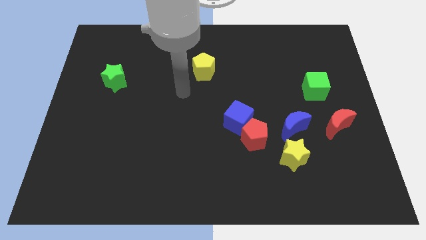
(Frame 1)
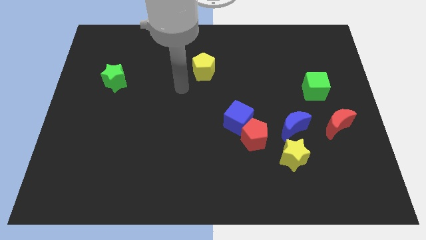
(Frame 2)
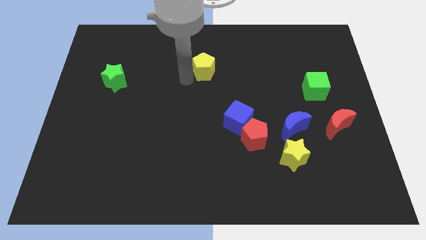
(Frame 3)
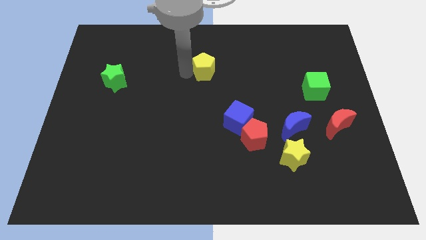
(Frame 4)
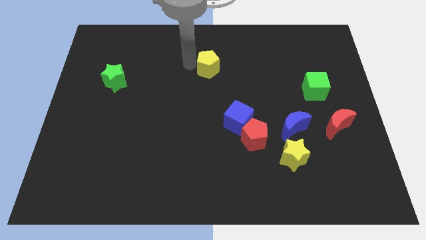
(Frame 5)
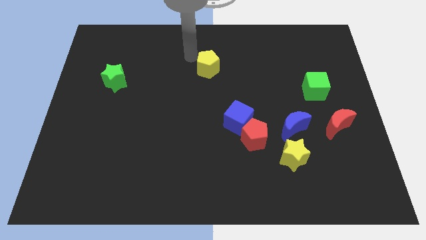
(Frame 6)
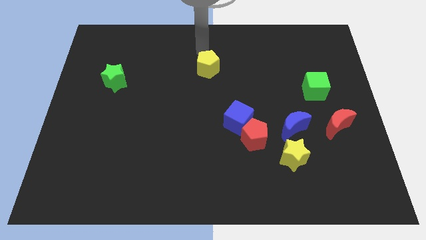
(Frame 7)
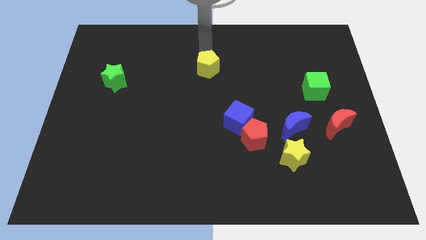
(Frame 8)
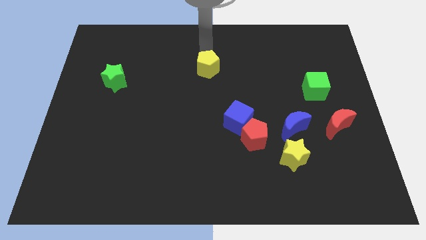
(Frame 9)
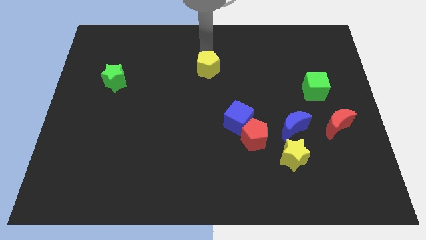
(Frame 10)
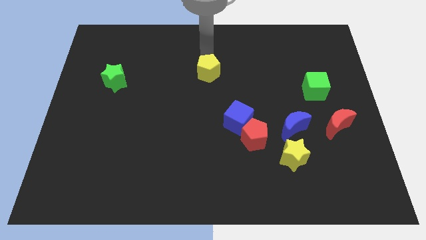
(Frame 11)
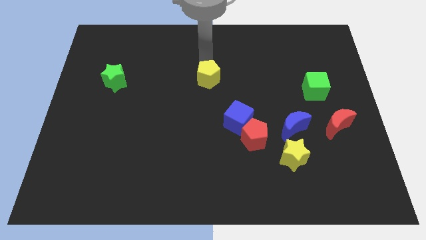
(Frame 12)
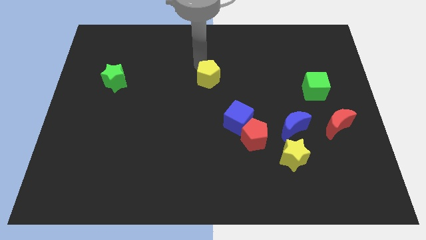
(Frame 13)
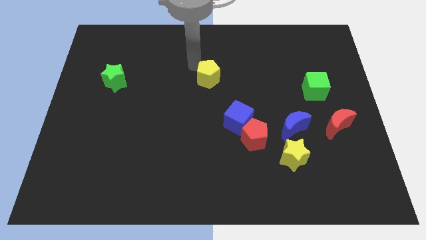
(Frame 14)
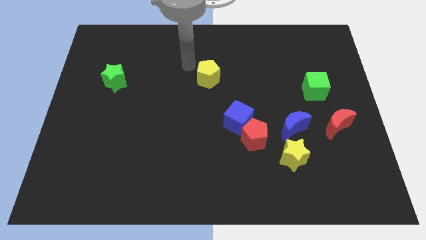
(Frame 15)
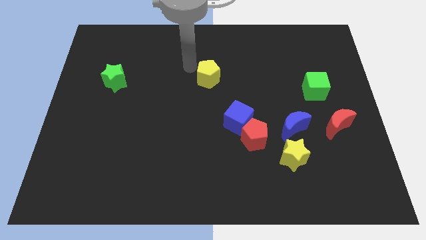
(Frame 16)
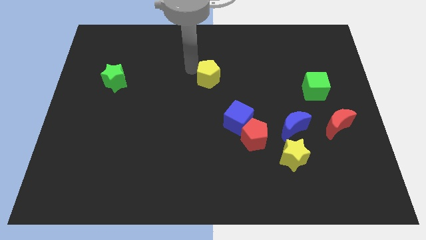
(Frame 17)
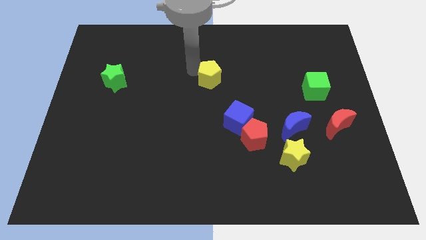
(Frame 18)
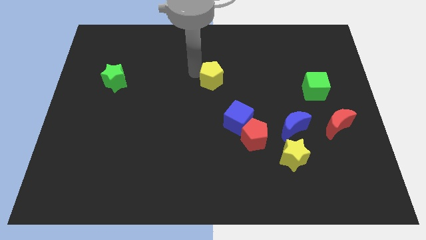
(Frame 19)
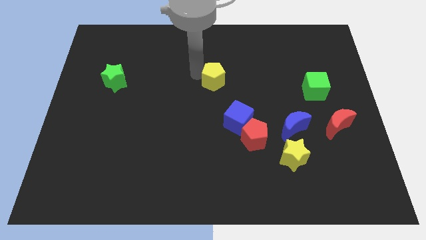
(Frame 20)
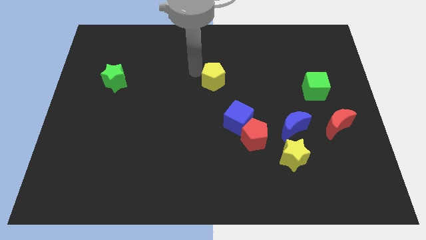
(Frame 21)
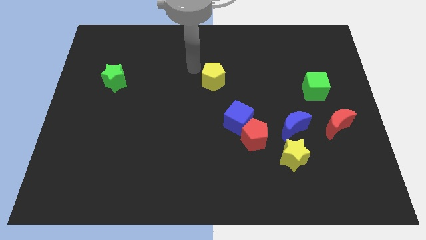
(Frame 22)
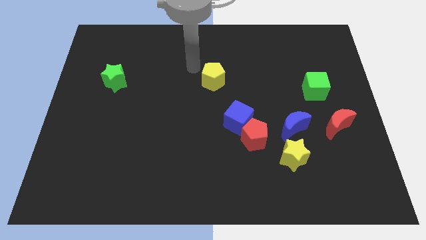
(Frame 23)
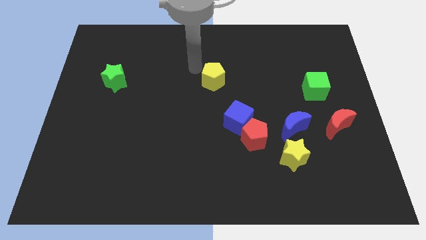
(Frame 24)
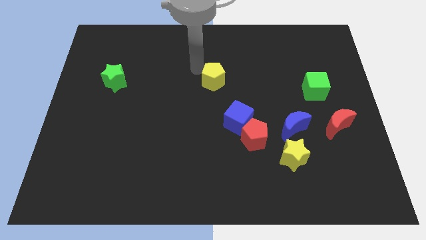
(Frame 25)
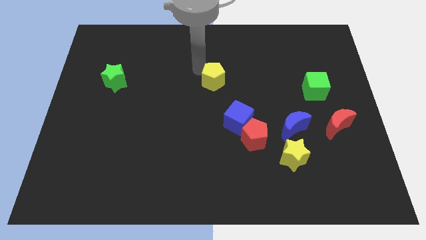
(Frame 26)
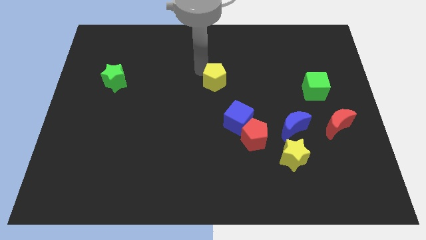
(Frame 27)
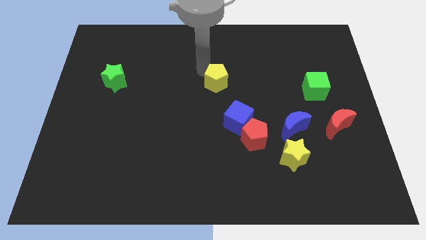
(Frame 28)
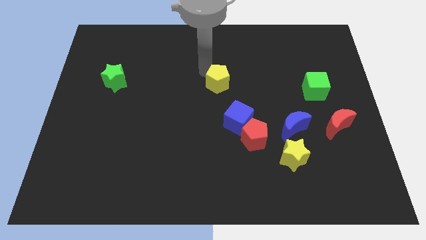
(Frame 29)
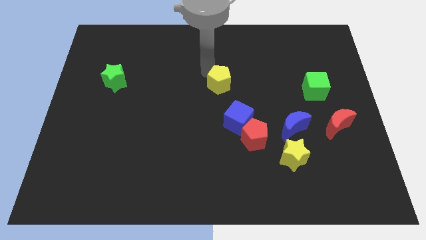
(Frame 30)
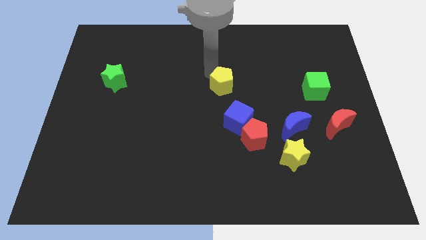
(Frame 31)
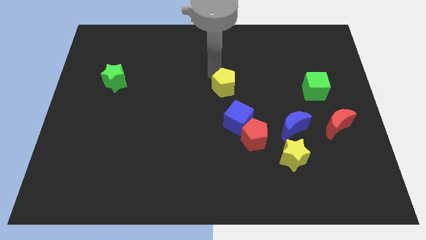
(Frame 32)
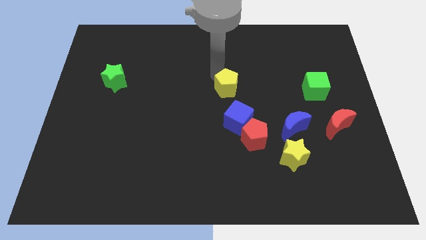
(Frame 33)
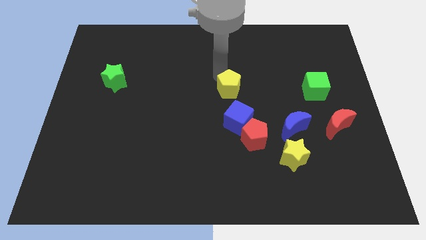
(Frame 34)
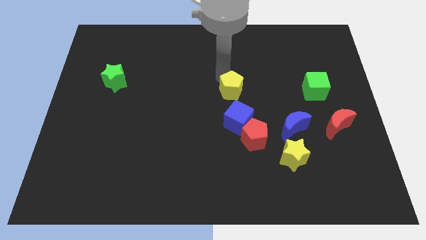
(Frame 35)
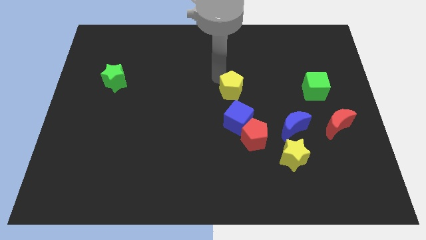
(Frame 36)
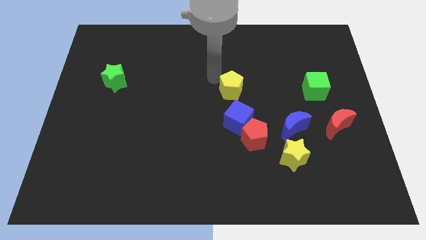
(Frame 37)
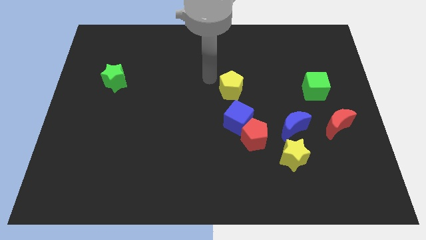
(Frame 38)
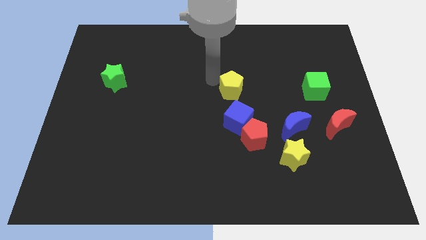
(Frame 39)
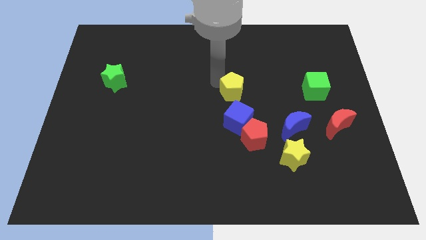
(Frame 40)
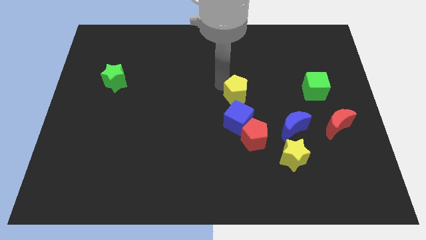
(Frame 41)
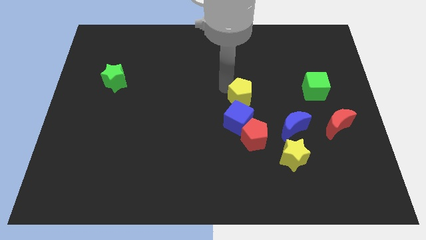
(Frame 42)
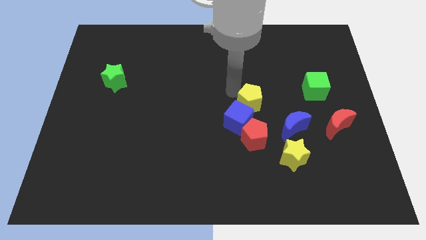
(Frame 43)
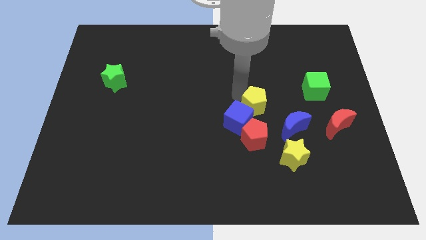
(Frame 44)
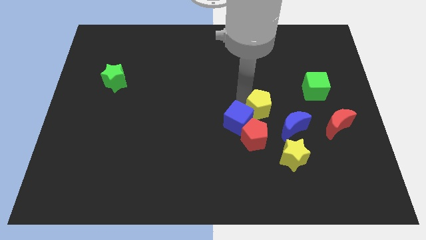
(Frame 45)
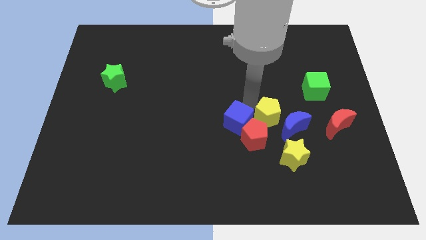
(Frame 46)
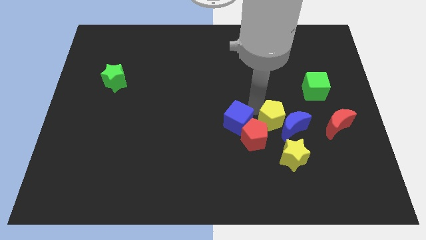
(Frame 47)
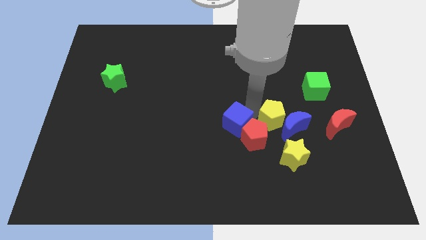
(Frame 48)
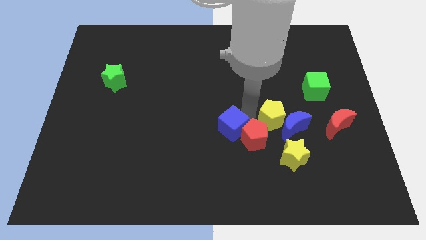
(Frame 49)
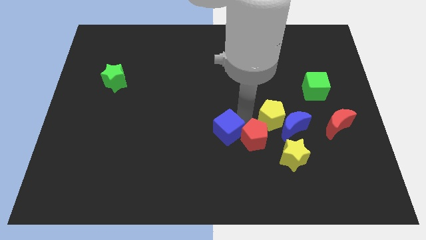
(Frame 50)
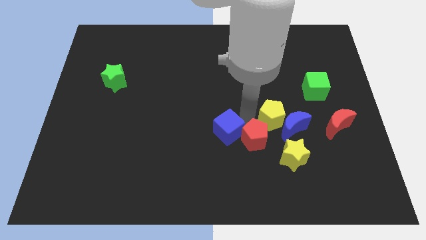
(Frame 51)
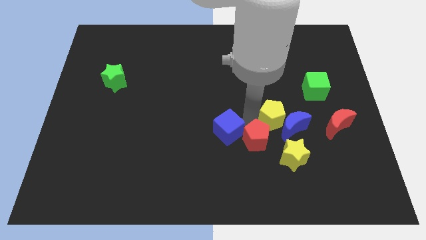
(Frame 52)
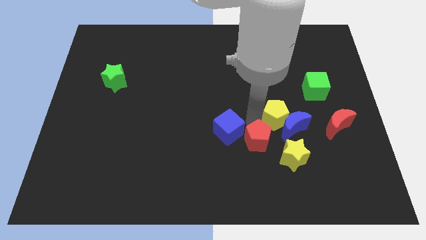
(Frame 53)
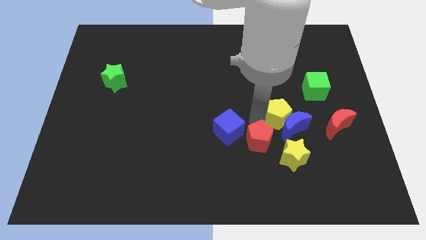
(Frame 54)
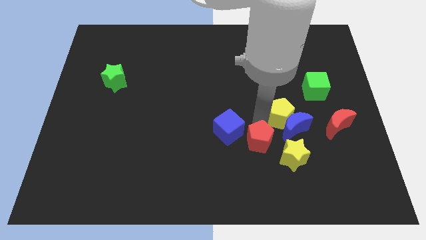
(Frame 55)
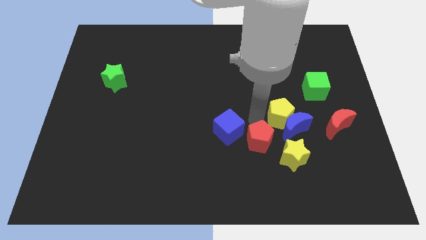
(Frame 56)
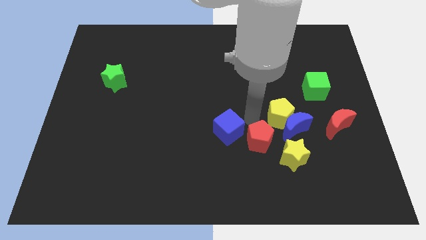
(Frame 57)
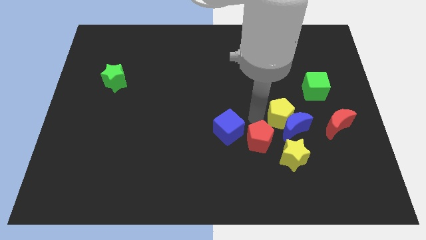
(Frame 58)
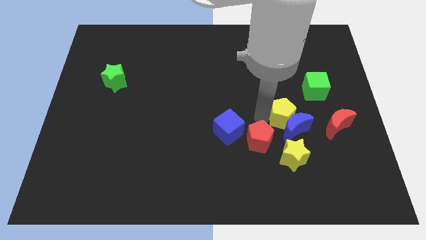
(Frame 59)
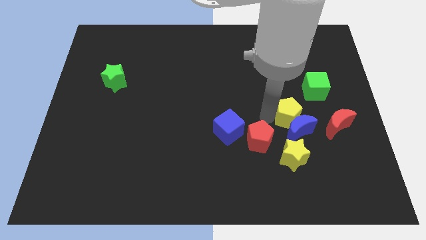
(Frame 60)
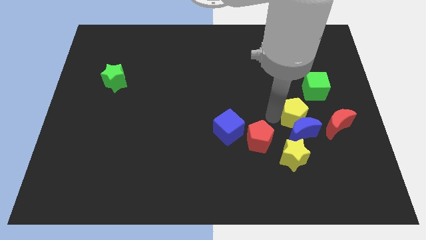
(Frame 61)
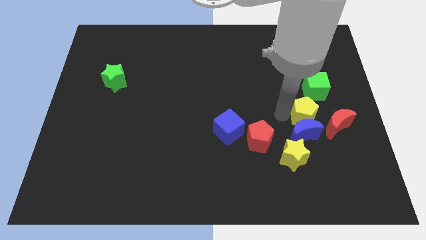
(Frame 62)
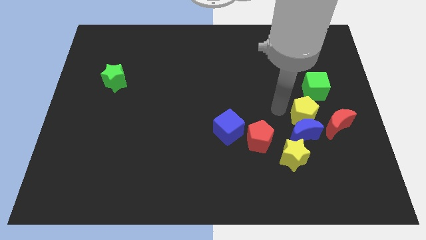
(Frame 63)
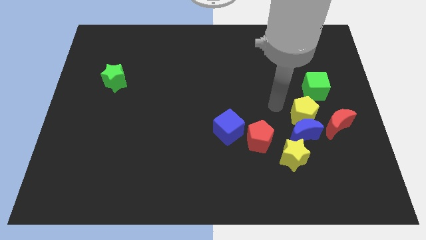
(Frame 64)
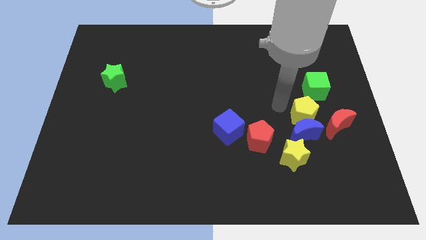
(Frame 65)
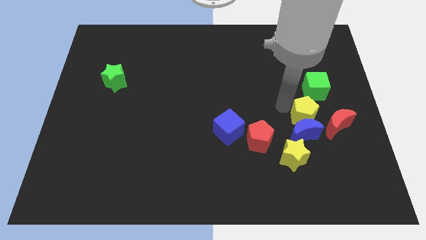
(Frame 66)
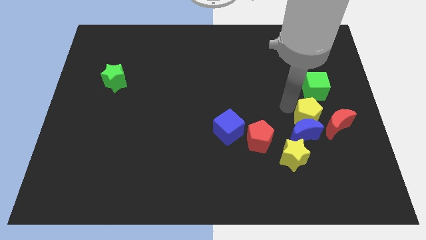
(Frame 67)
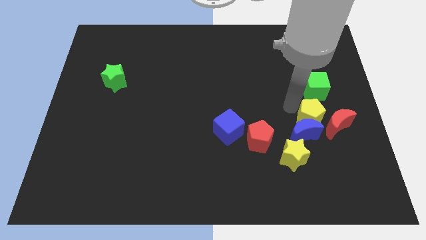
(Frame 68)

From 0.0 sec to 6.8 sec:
move the yellow pentagon to the red moon

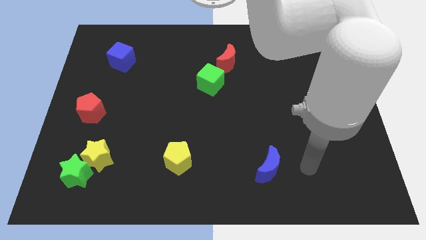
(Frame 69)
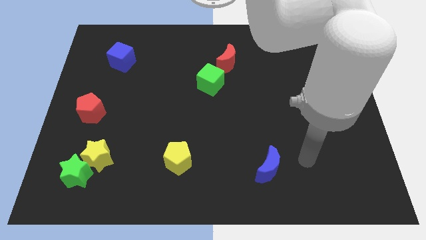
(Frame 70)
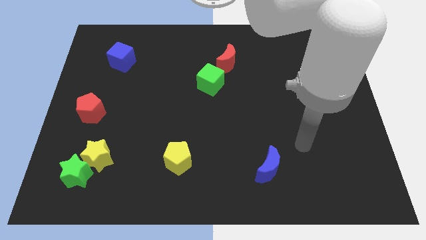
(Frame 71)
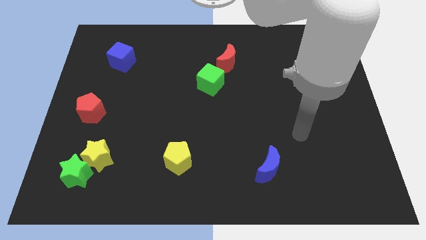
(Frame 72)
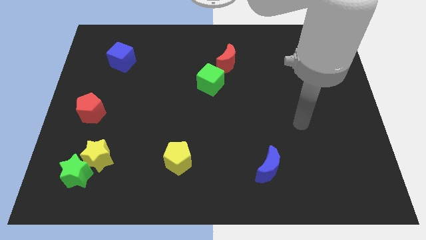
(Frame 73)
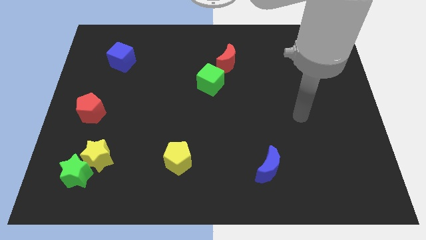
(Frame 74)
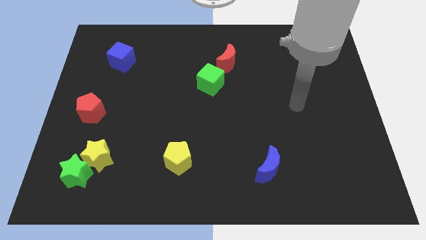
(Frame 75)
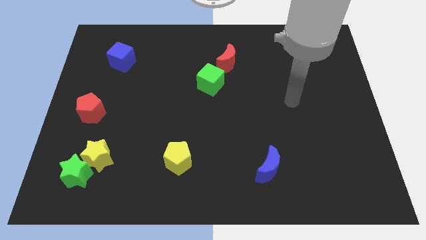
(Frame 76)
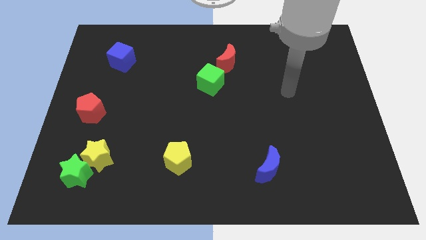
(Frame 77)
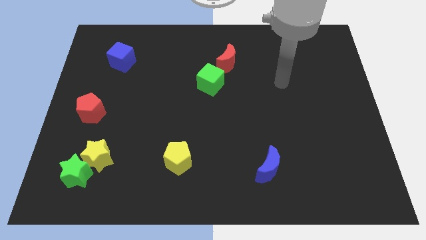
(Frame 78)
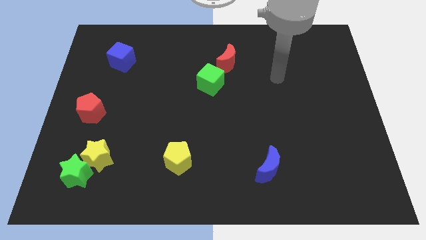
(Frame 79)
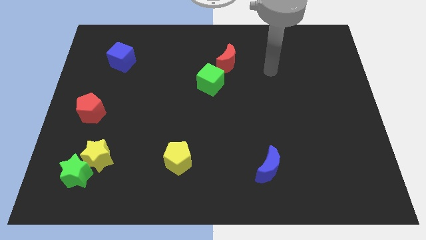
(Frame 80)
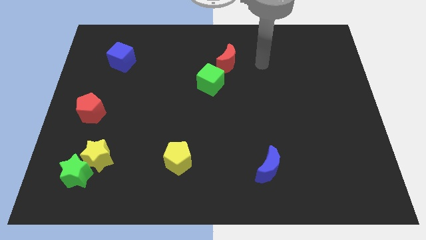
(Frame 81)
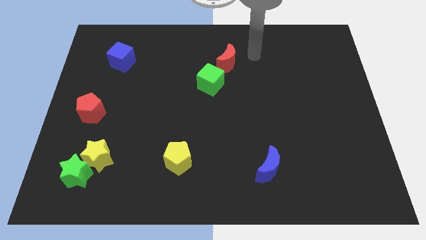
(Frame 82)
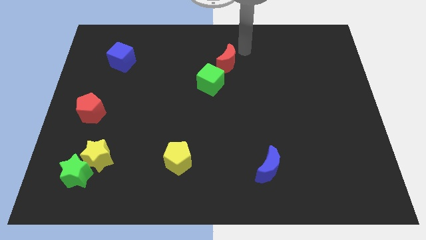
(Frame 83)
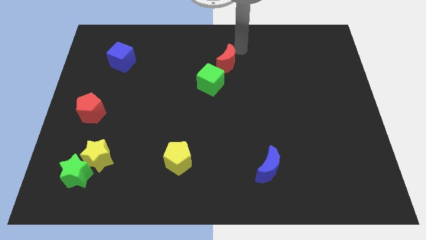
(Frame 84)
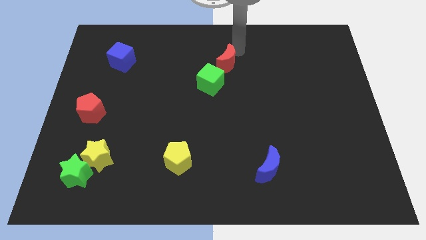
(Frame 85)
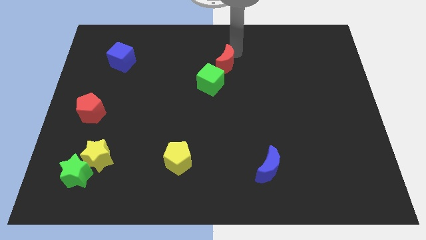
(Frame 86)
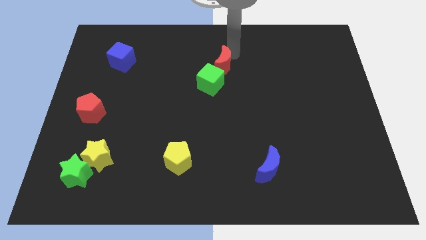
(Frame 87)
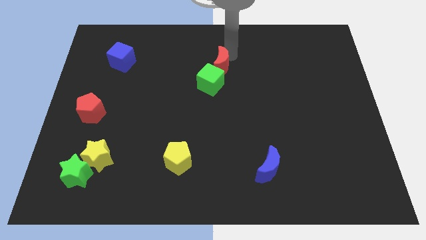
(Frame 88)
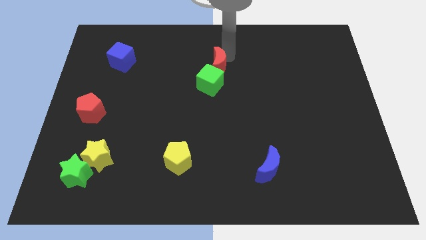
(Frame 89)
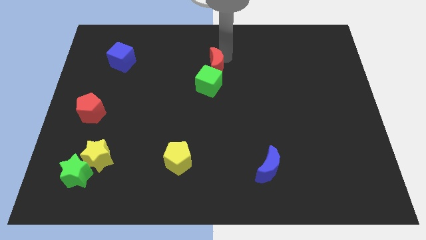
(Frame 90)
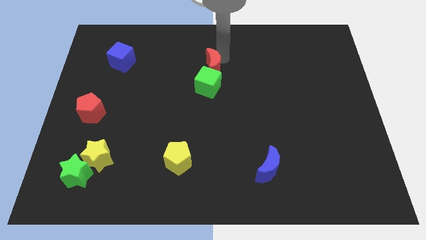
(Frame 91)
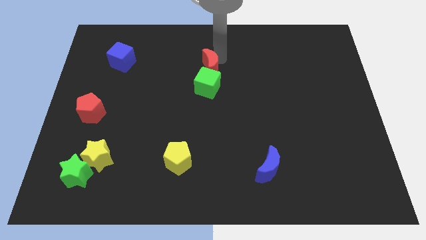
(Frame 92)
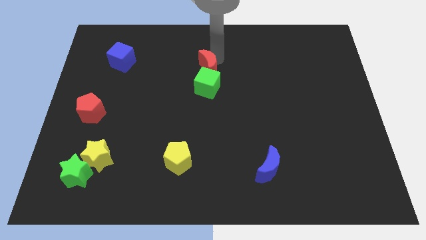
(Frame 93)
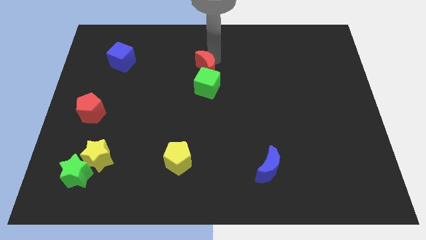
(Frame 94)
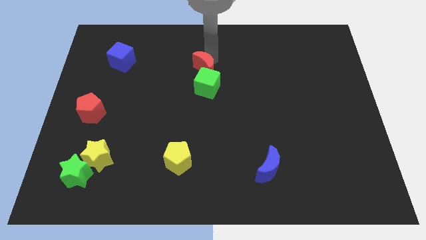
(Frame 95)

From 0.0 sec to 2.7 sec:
push the red moon towards the green cube
